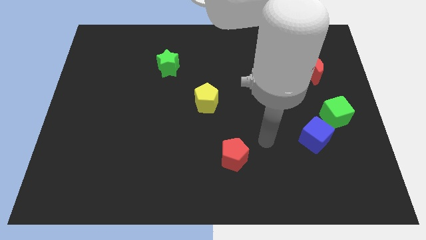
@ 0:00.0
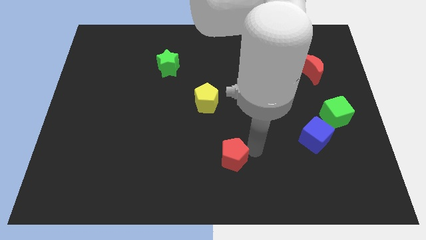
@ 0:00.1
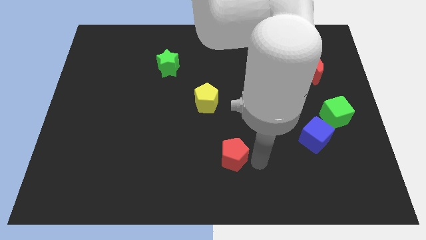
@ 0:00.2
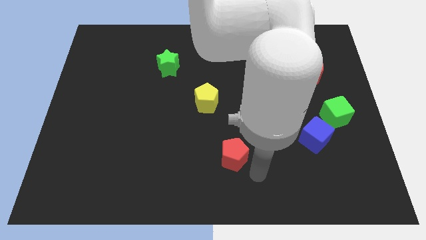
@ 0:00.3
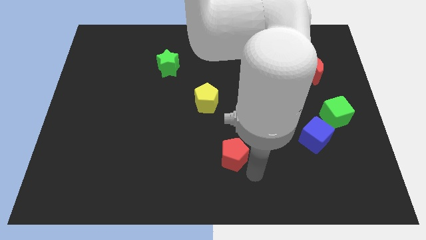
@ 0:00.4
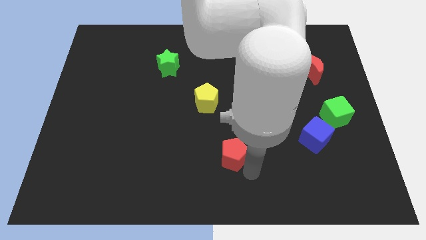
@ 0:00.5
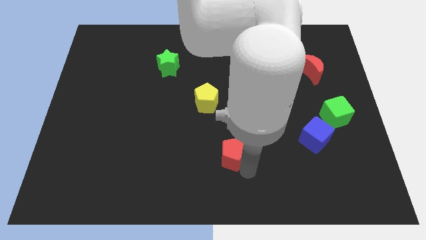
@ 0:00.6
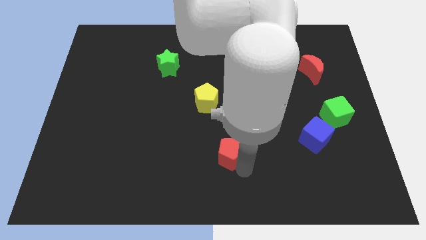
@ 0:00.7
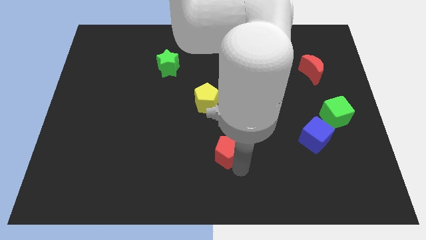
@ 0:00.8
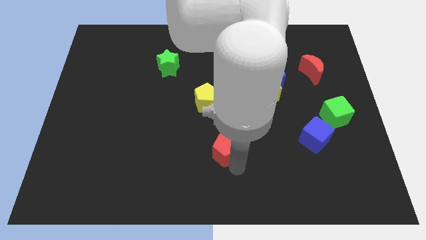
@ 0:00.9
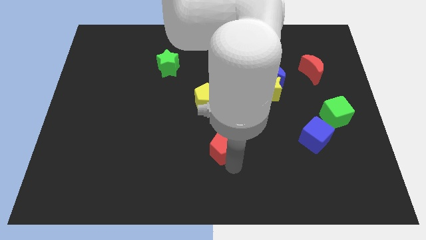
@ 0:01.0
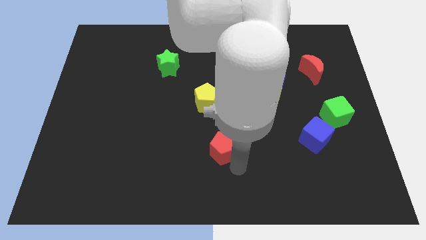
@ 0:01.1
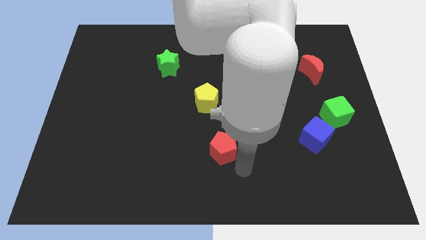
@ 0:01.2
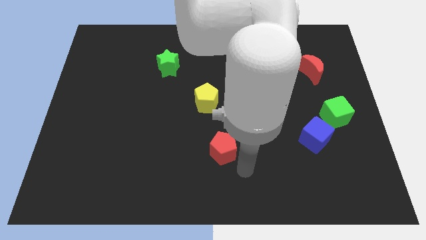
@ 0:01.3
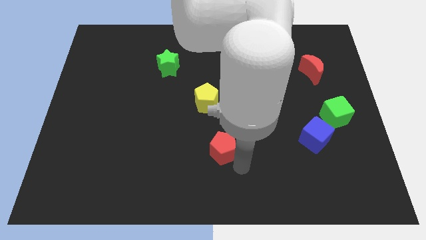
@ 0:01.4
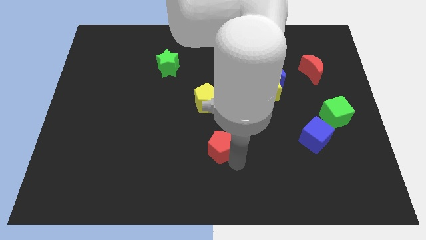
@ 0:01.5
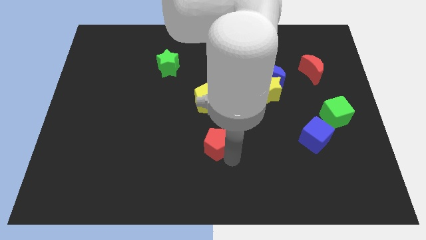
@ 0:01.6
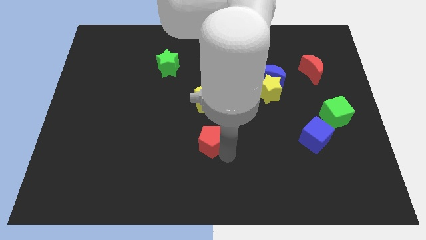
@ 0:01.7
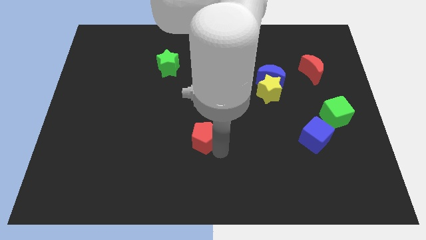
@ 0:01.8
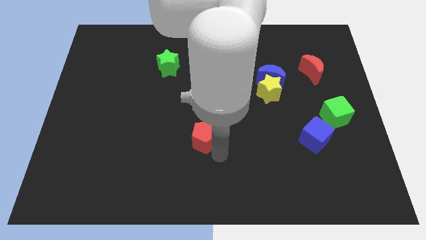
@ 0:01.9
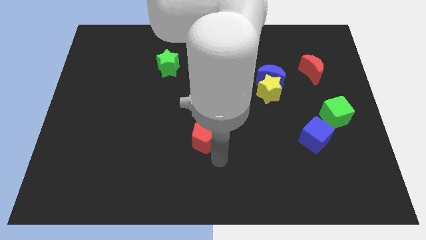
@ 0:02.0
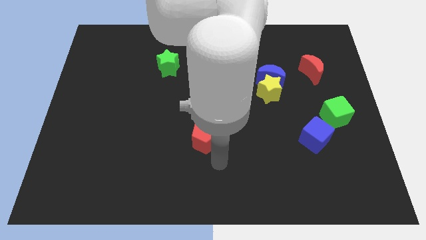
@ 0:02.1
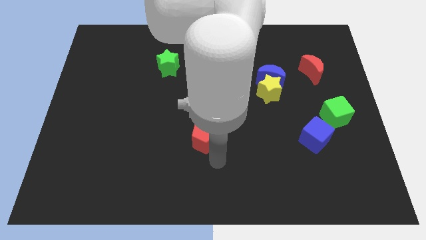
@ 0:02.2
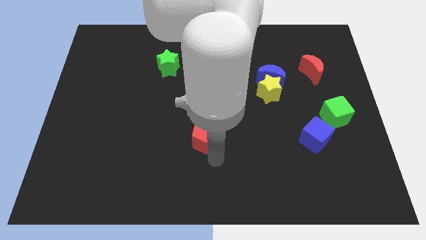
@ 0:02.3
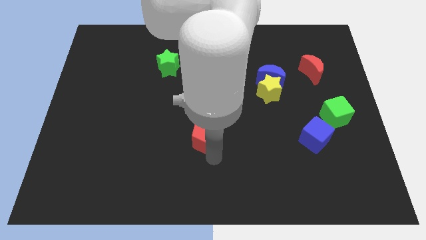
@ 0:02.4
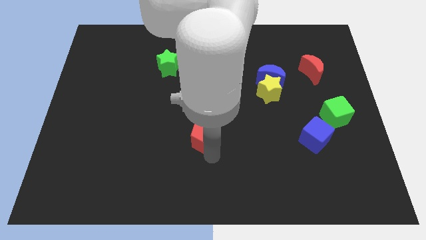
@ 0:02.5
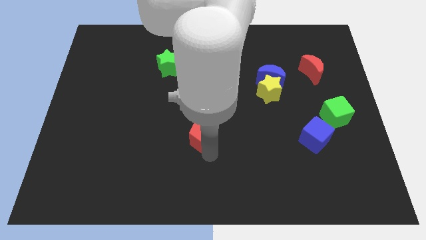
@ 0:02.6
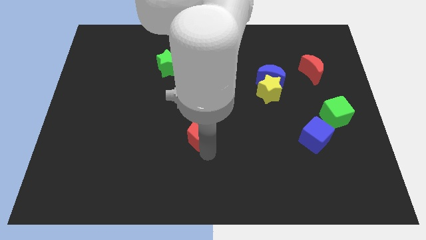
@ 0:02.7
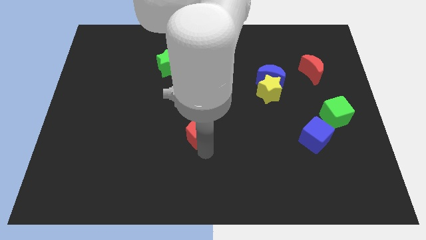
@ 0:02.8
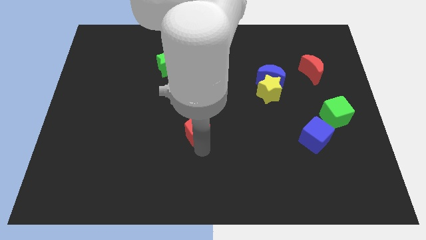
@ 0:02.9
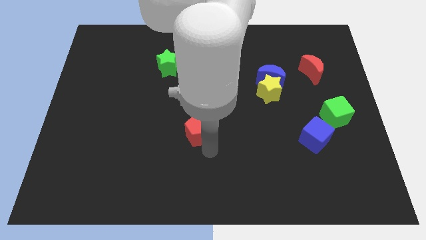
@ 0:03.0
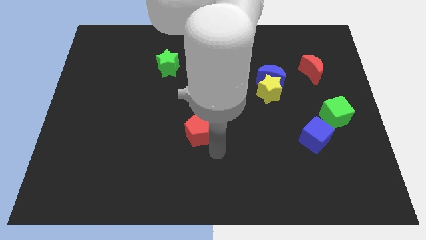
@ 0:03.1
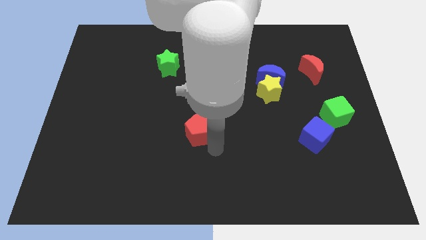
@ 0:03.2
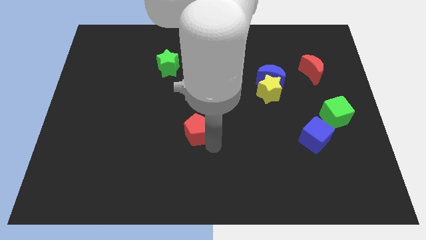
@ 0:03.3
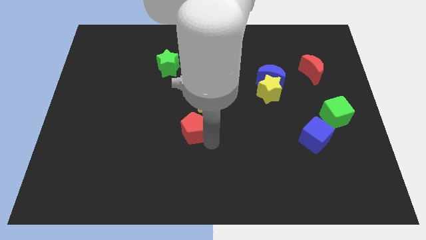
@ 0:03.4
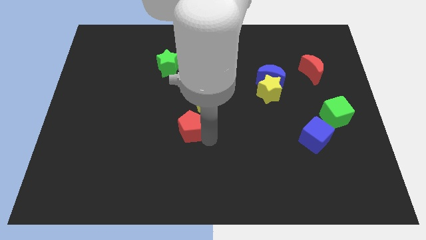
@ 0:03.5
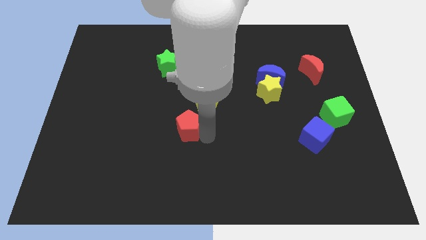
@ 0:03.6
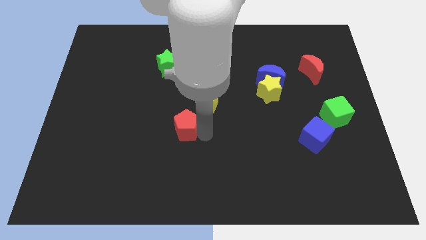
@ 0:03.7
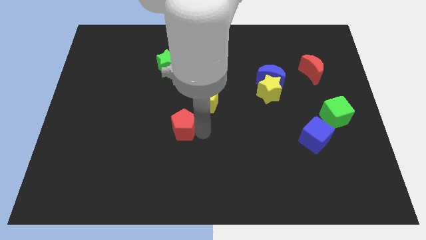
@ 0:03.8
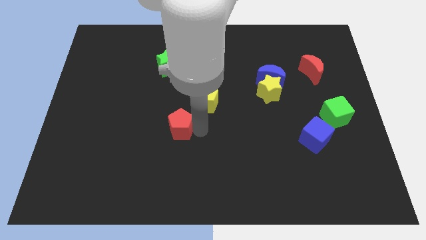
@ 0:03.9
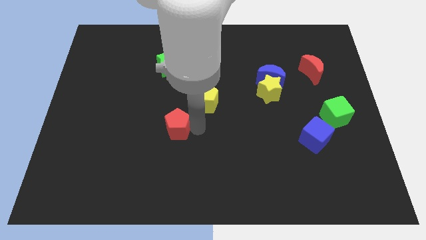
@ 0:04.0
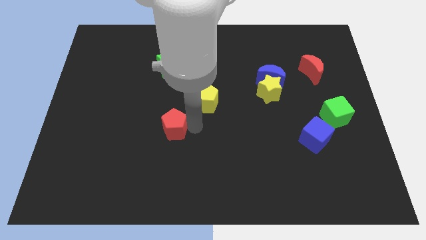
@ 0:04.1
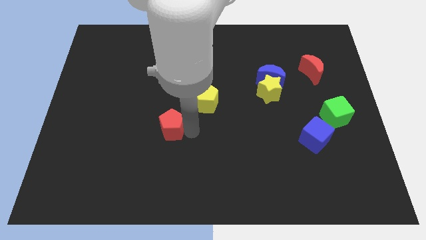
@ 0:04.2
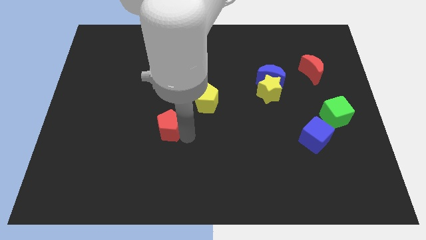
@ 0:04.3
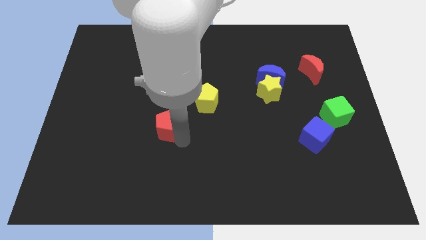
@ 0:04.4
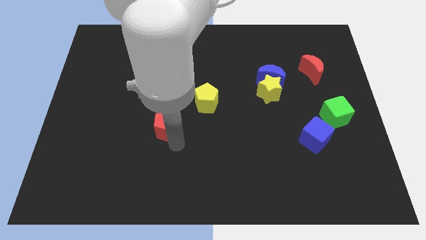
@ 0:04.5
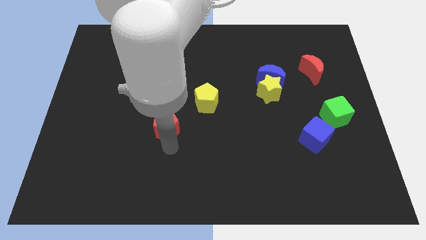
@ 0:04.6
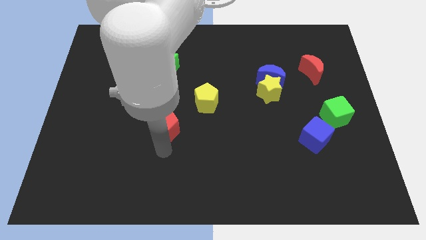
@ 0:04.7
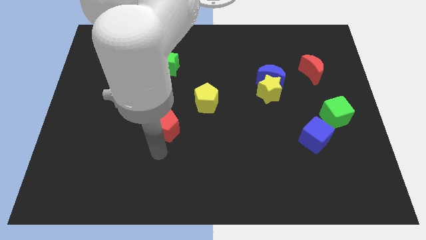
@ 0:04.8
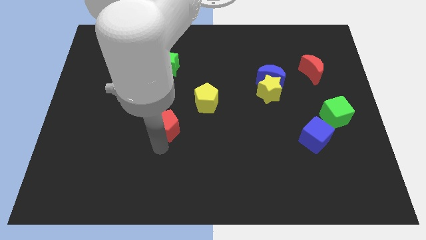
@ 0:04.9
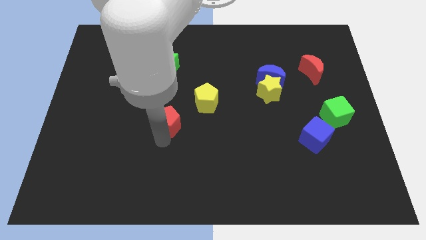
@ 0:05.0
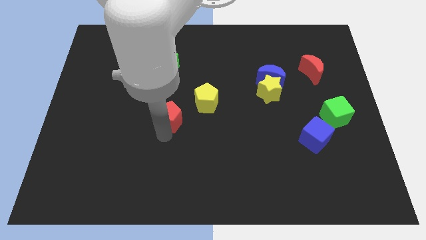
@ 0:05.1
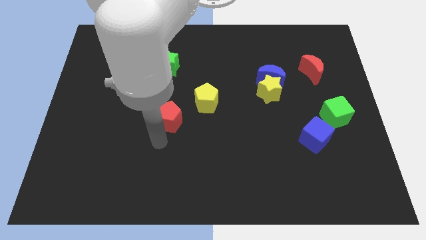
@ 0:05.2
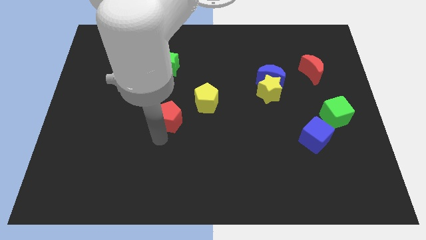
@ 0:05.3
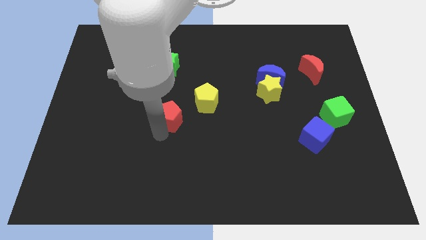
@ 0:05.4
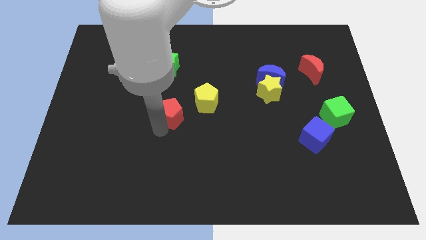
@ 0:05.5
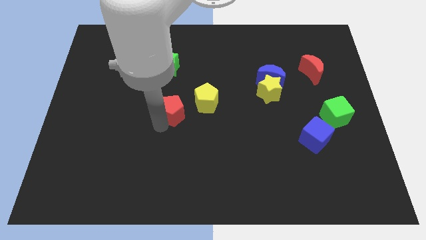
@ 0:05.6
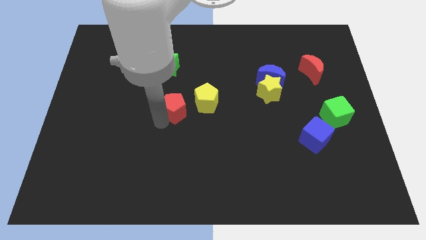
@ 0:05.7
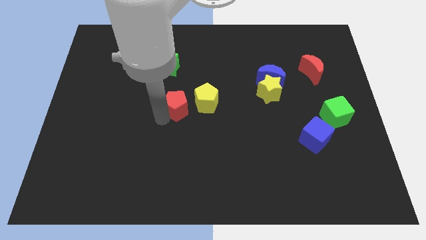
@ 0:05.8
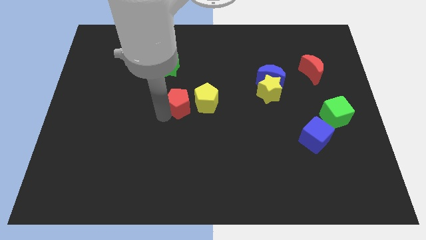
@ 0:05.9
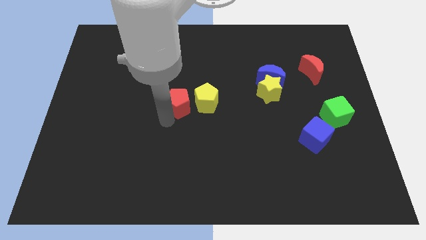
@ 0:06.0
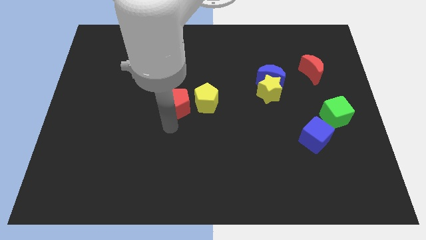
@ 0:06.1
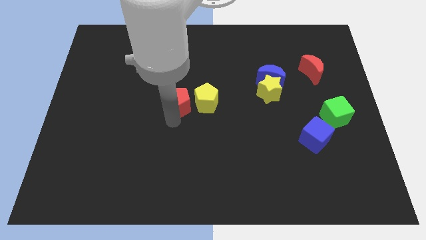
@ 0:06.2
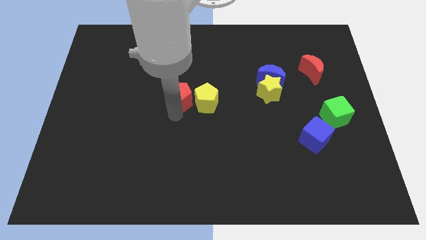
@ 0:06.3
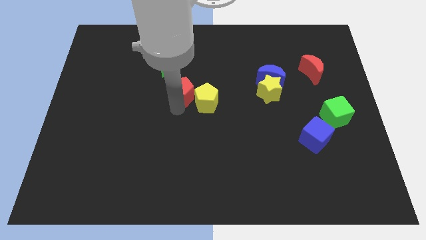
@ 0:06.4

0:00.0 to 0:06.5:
push the red pentagon to the bottom right of the green star
